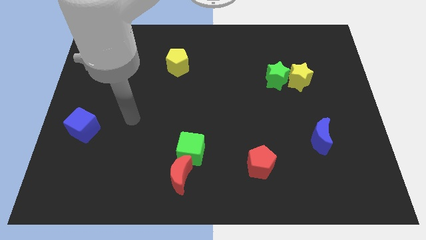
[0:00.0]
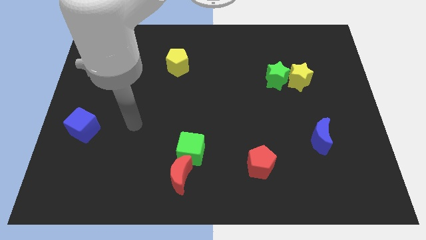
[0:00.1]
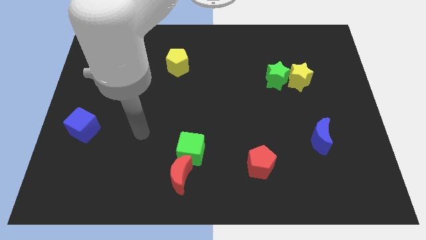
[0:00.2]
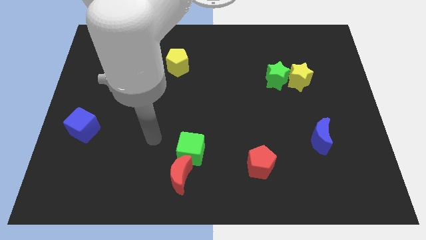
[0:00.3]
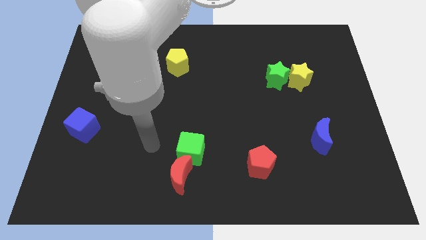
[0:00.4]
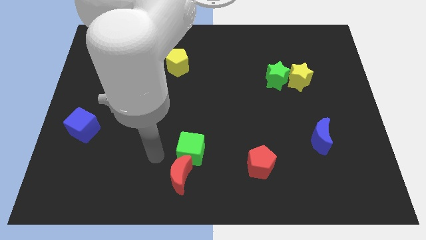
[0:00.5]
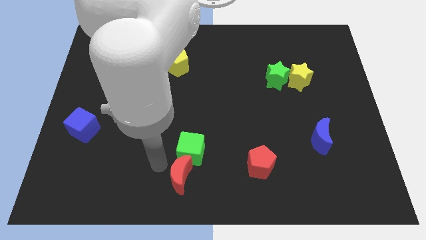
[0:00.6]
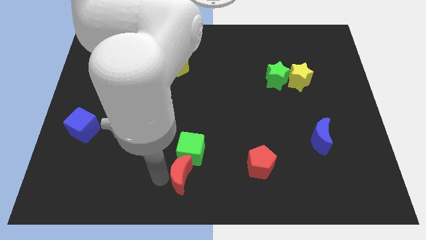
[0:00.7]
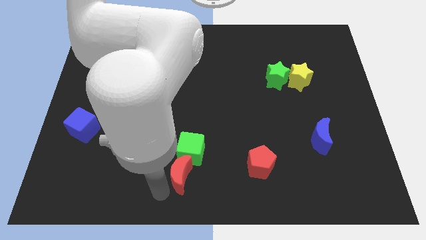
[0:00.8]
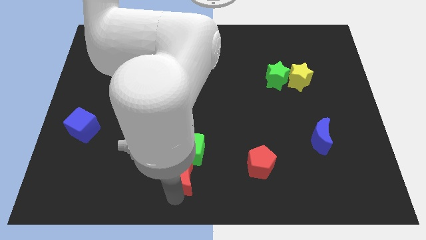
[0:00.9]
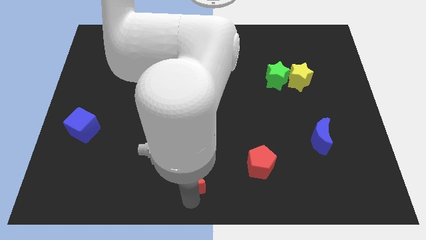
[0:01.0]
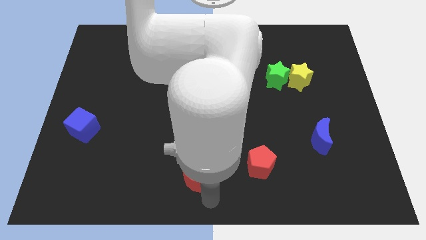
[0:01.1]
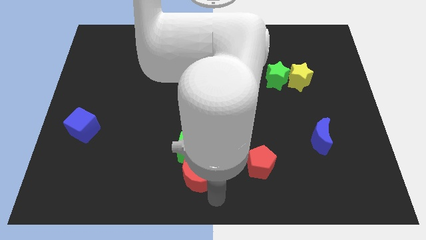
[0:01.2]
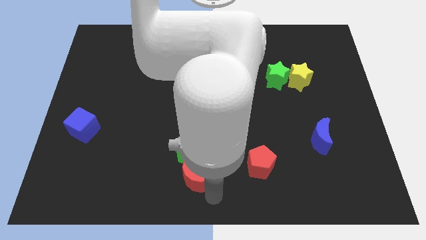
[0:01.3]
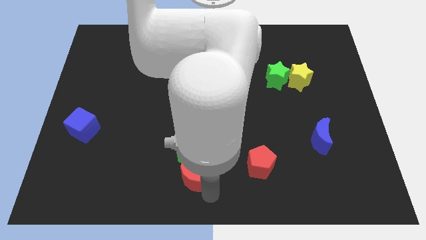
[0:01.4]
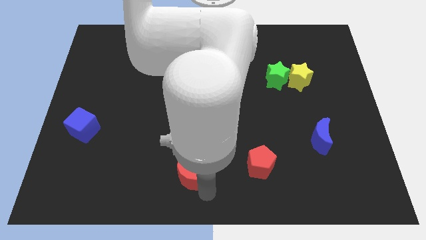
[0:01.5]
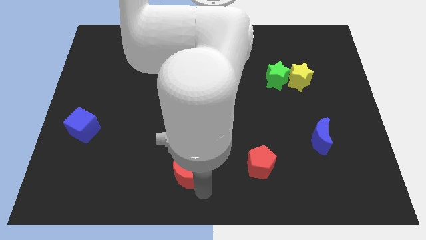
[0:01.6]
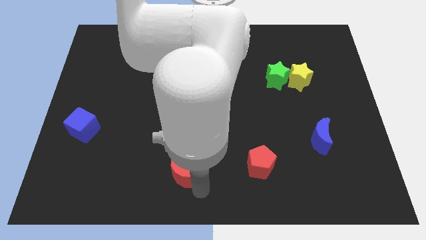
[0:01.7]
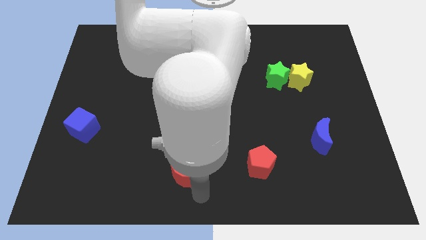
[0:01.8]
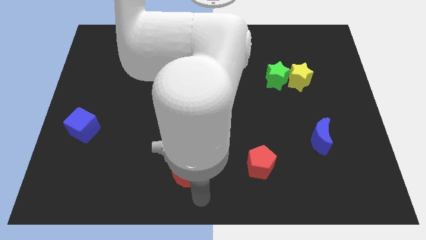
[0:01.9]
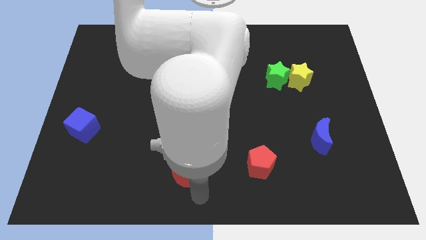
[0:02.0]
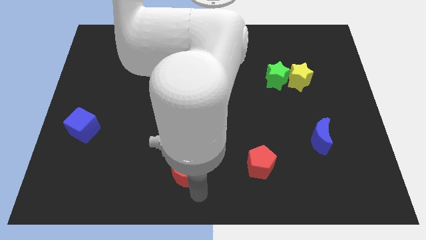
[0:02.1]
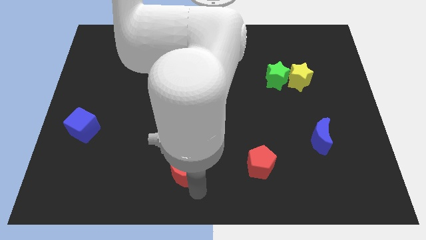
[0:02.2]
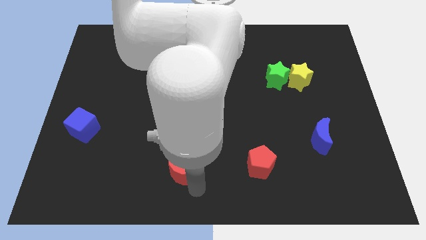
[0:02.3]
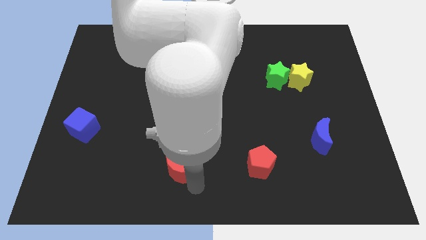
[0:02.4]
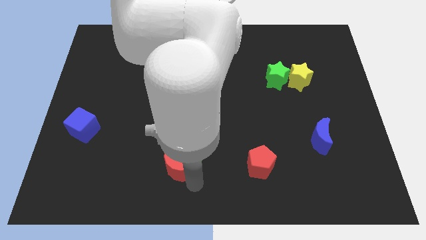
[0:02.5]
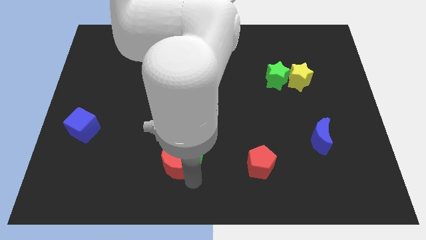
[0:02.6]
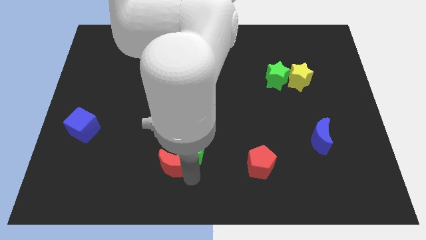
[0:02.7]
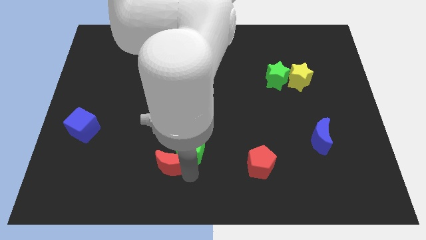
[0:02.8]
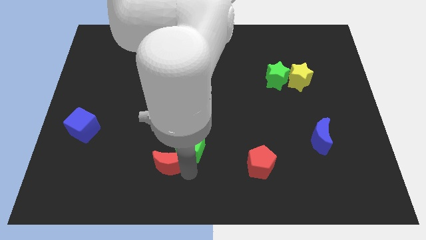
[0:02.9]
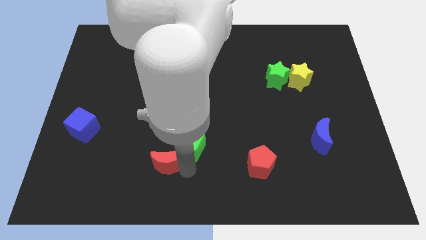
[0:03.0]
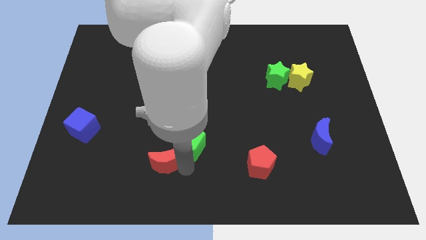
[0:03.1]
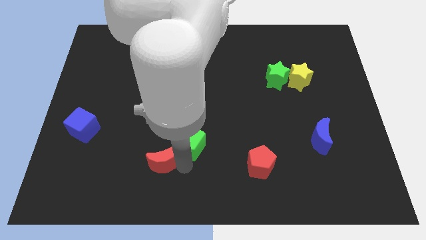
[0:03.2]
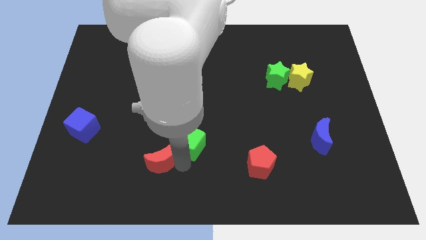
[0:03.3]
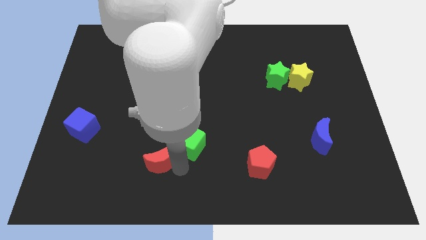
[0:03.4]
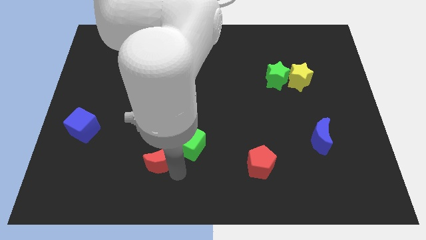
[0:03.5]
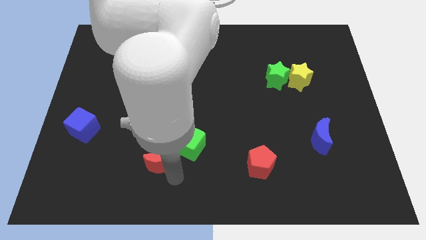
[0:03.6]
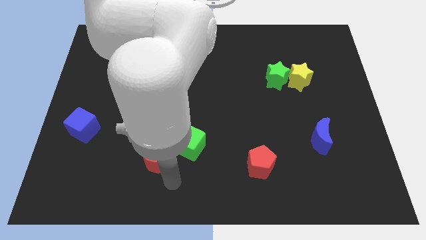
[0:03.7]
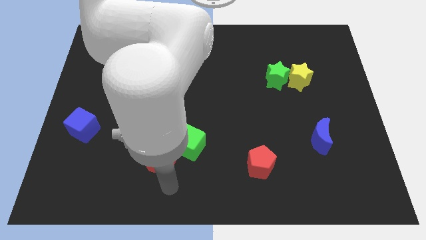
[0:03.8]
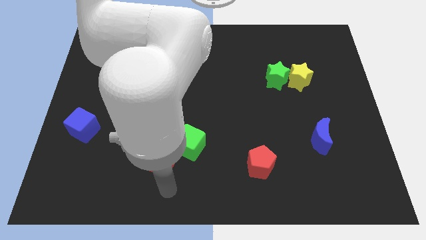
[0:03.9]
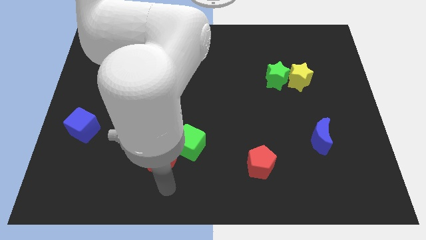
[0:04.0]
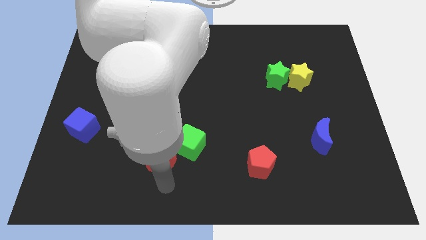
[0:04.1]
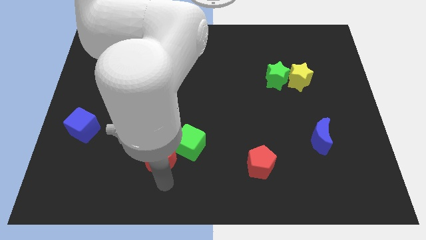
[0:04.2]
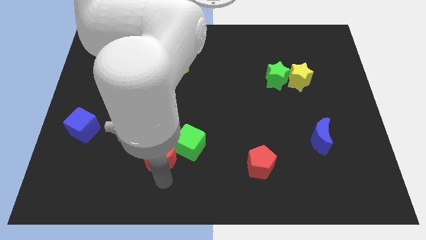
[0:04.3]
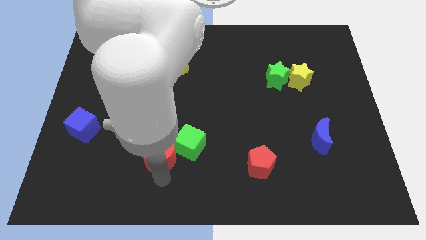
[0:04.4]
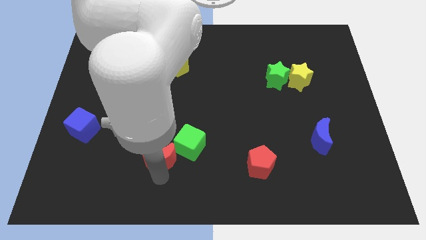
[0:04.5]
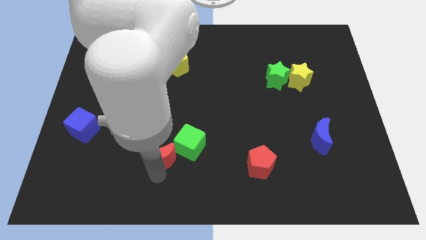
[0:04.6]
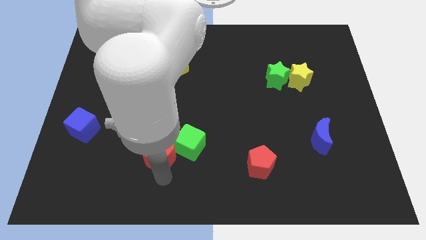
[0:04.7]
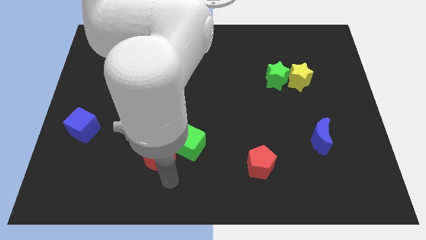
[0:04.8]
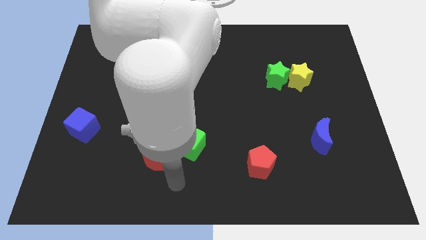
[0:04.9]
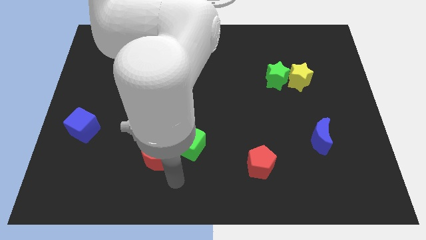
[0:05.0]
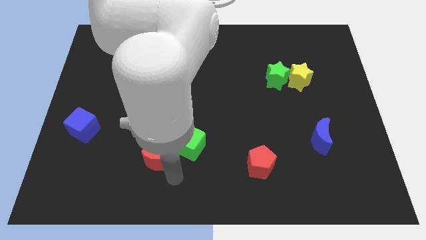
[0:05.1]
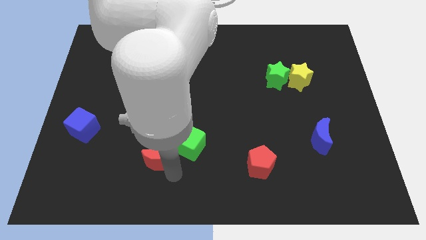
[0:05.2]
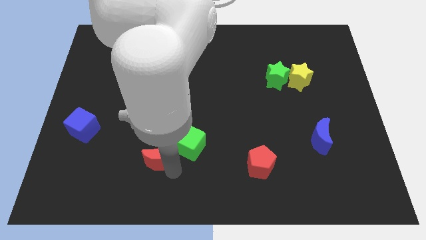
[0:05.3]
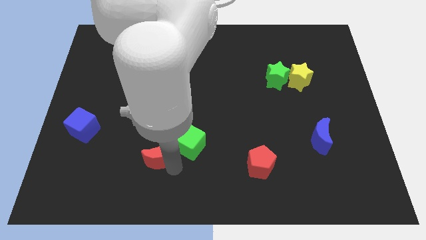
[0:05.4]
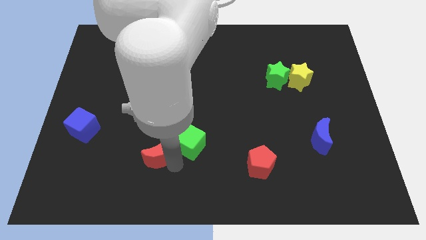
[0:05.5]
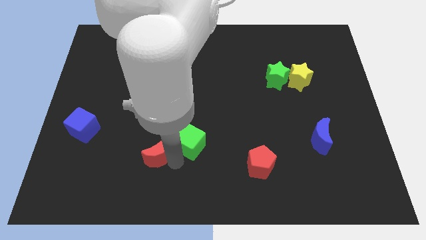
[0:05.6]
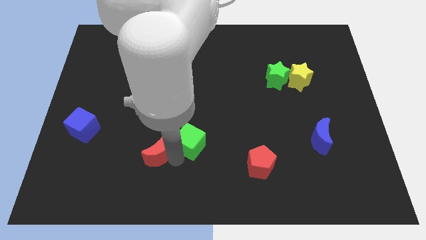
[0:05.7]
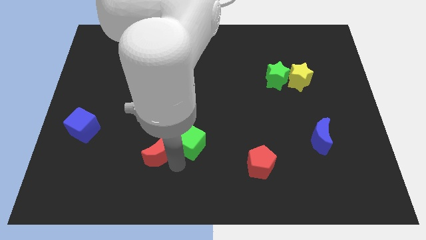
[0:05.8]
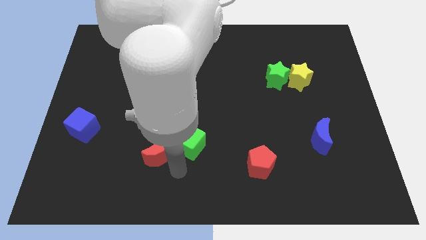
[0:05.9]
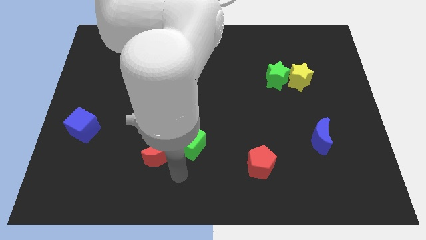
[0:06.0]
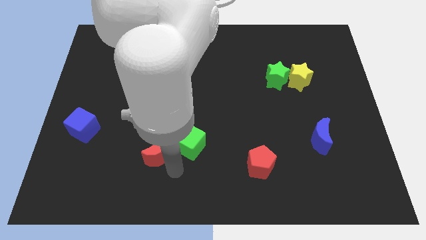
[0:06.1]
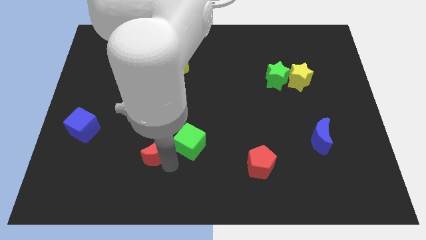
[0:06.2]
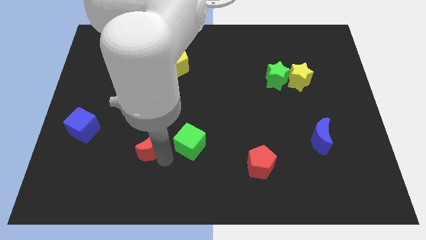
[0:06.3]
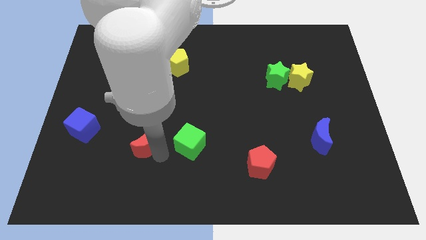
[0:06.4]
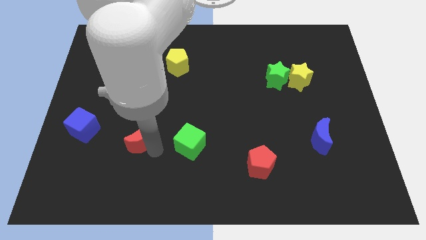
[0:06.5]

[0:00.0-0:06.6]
slide the red moon right of the blue cube

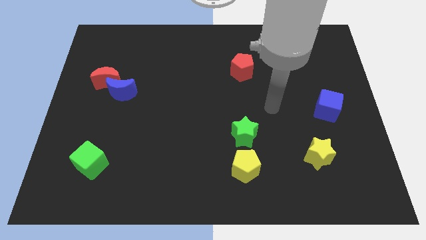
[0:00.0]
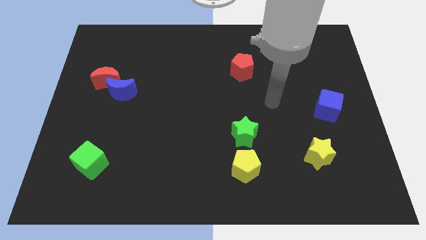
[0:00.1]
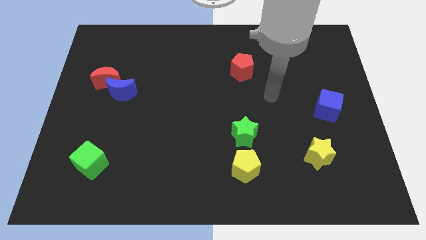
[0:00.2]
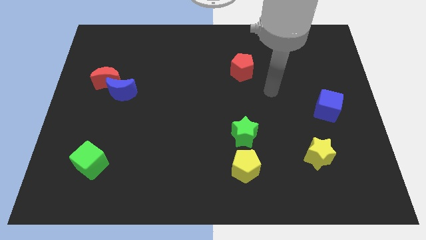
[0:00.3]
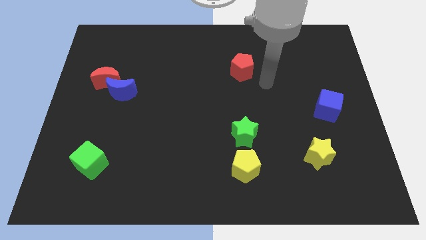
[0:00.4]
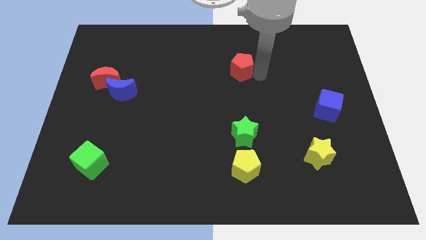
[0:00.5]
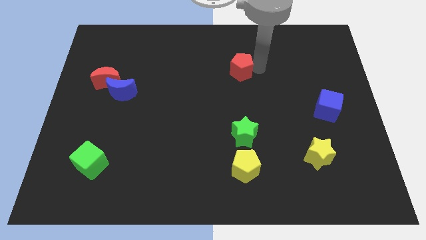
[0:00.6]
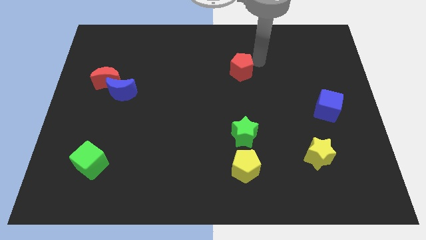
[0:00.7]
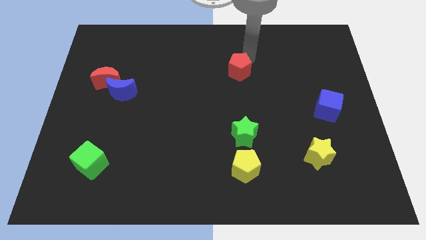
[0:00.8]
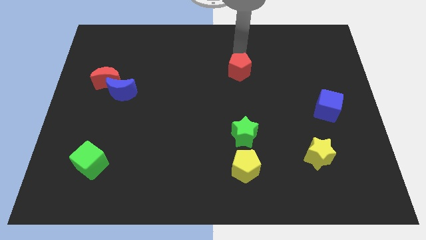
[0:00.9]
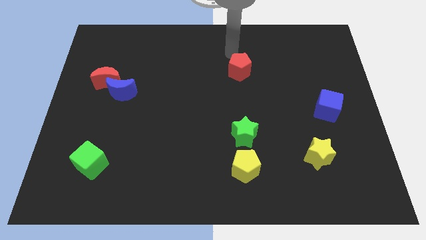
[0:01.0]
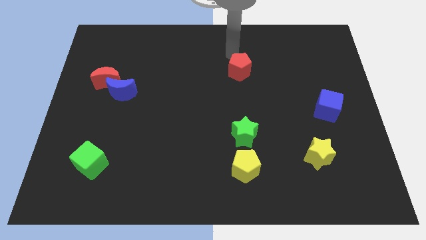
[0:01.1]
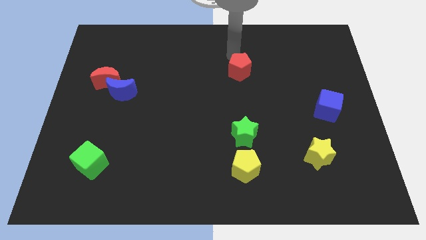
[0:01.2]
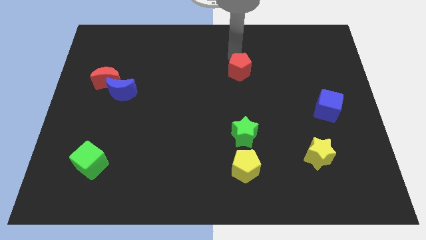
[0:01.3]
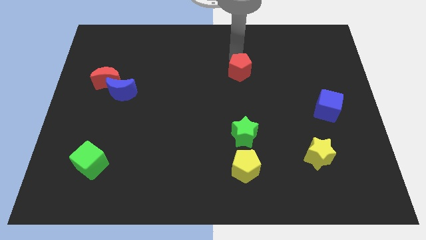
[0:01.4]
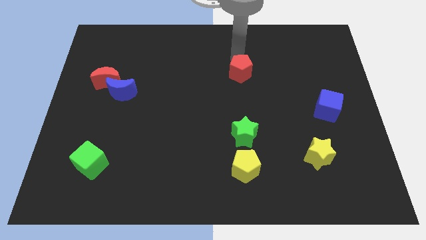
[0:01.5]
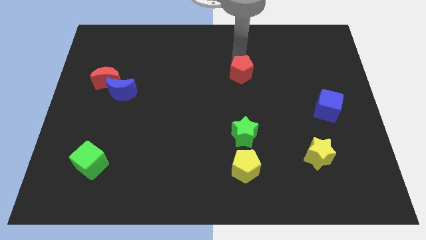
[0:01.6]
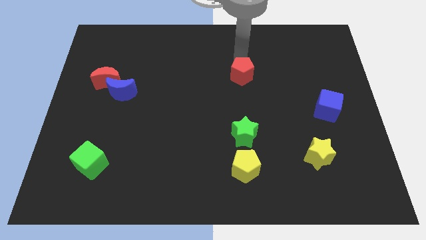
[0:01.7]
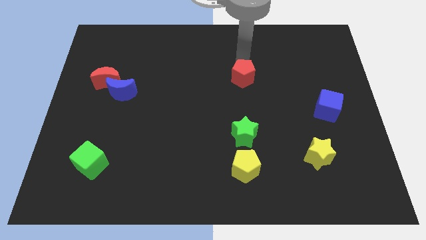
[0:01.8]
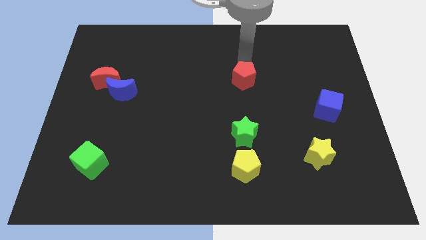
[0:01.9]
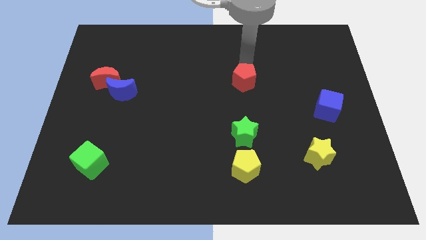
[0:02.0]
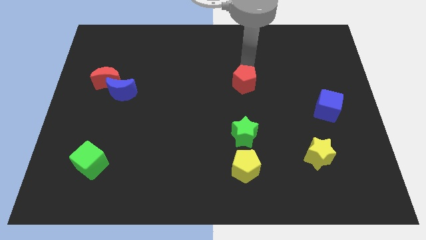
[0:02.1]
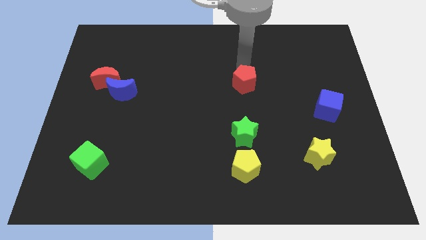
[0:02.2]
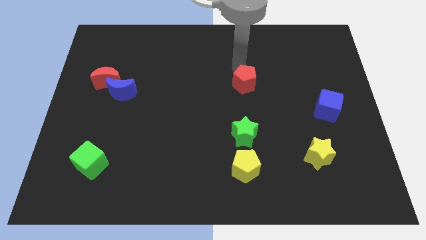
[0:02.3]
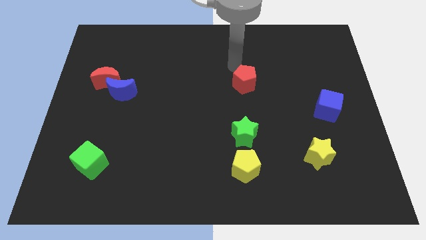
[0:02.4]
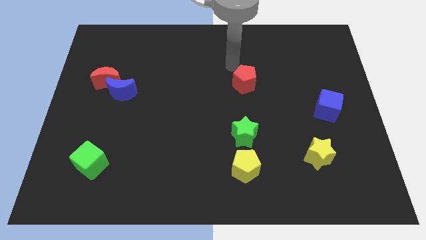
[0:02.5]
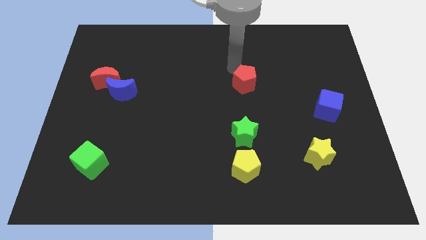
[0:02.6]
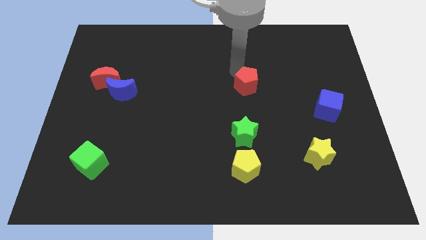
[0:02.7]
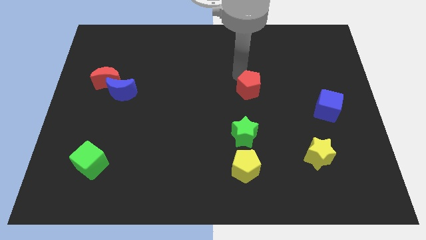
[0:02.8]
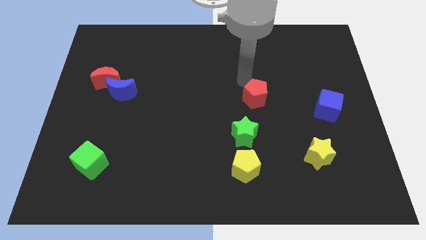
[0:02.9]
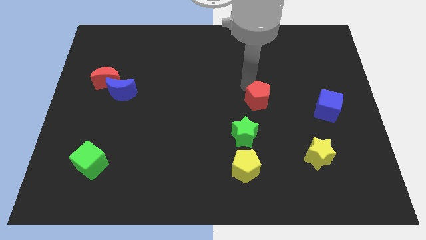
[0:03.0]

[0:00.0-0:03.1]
move the red pentagon to the top right side of the green star
